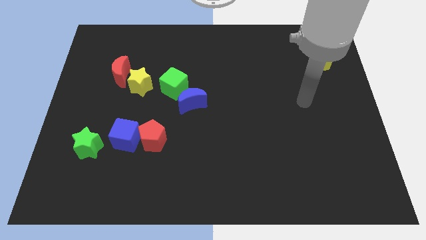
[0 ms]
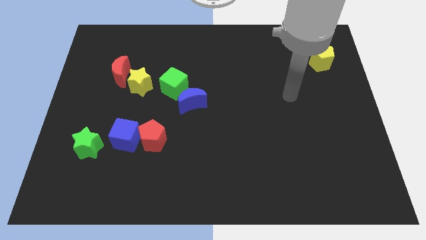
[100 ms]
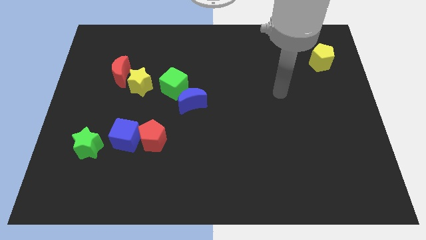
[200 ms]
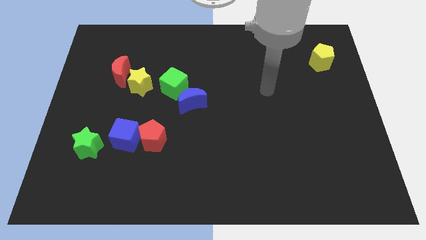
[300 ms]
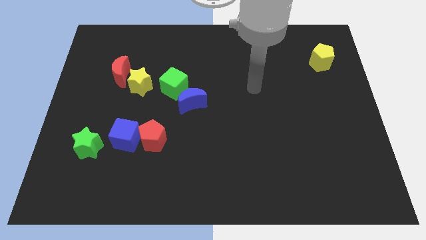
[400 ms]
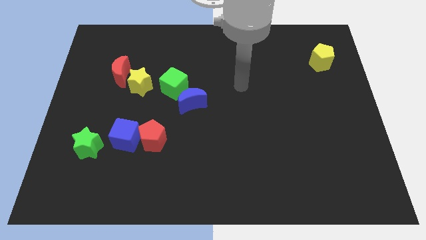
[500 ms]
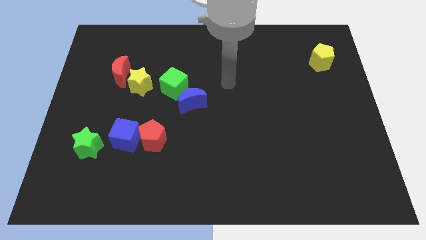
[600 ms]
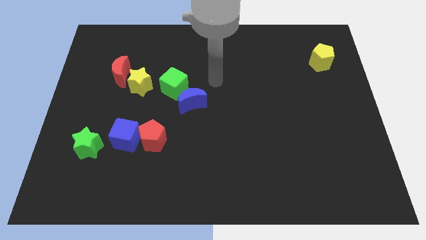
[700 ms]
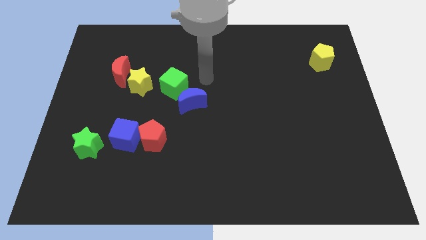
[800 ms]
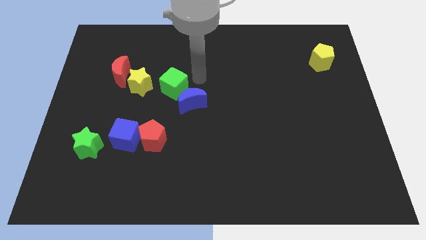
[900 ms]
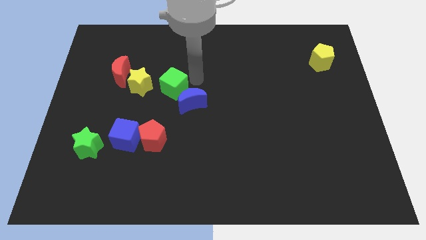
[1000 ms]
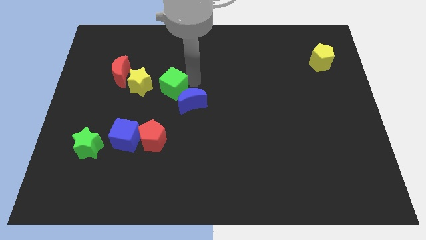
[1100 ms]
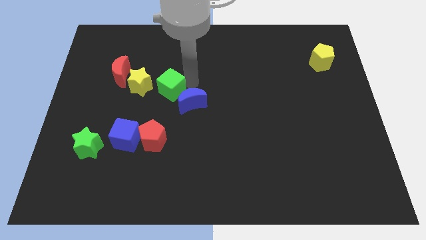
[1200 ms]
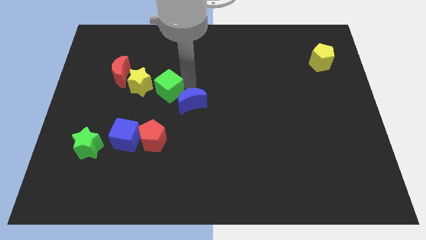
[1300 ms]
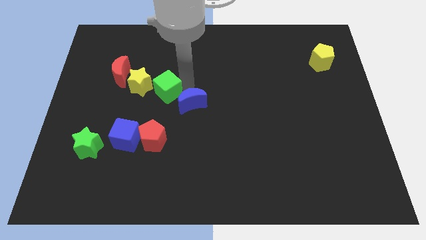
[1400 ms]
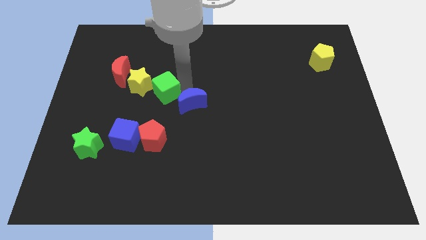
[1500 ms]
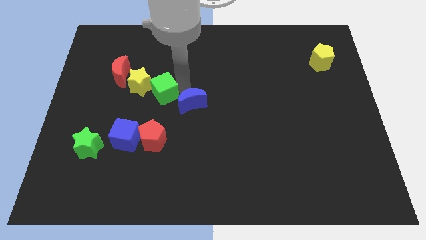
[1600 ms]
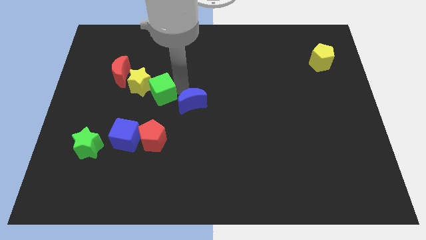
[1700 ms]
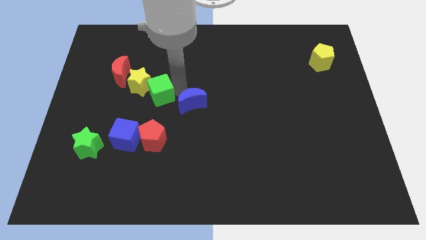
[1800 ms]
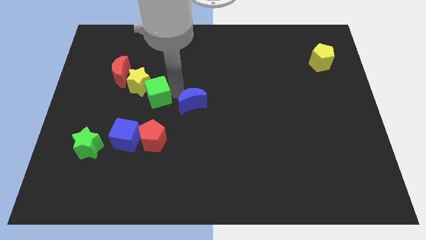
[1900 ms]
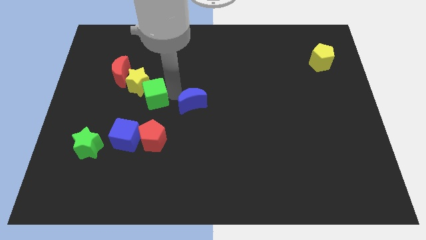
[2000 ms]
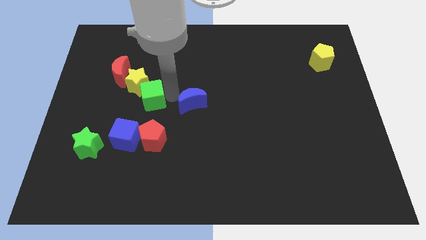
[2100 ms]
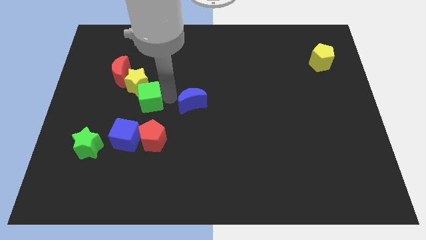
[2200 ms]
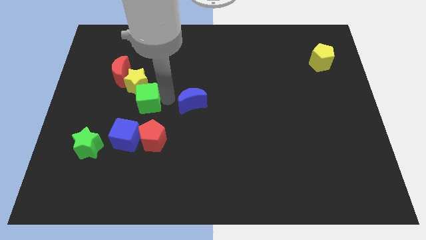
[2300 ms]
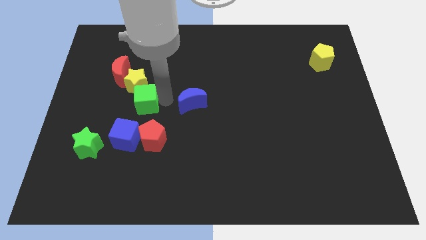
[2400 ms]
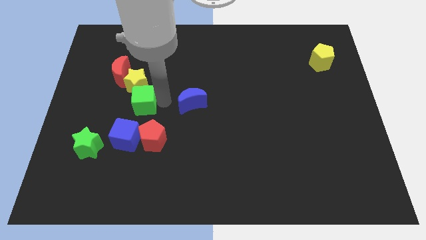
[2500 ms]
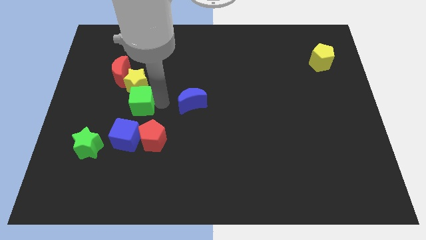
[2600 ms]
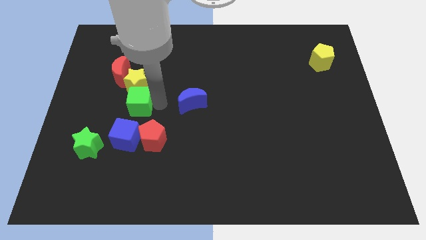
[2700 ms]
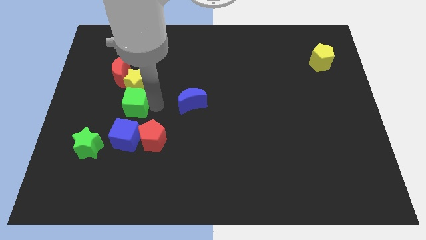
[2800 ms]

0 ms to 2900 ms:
slightly move the green cube to the left

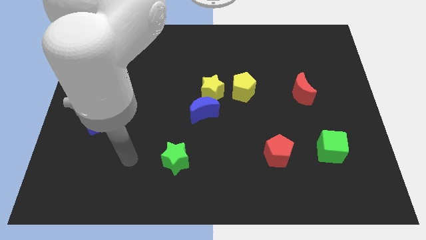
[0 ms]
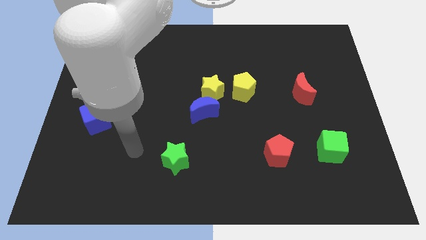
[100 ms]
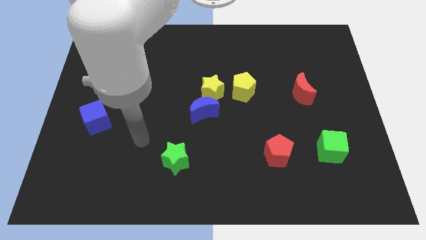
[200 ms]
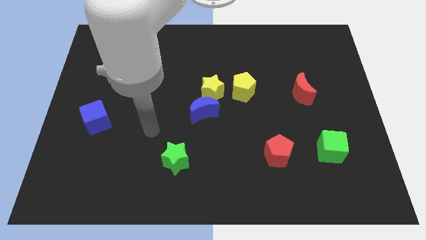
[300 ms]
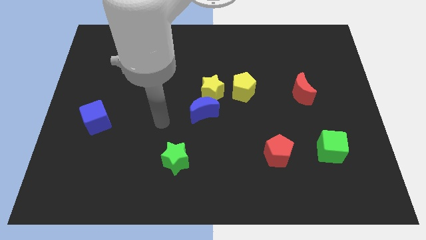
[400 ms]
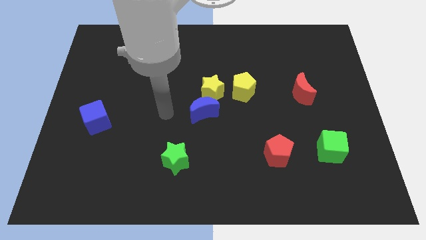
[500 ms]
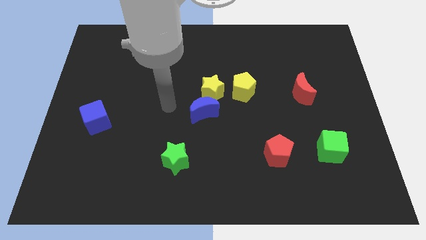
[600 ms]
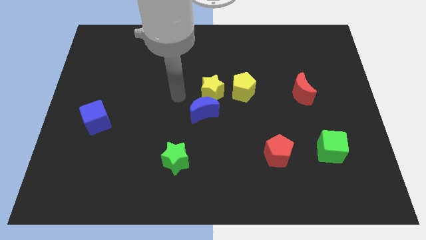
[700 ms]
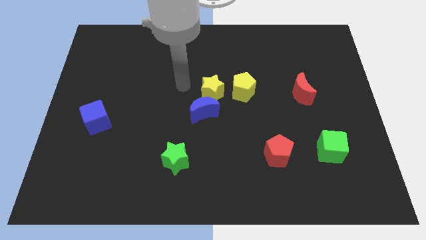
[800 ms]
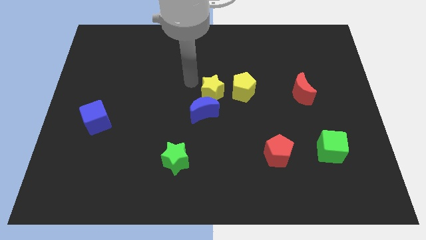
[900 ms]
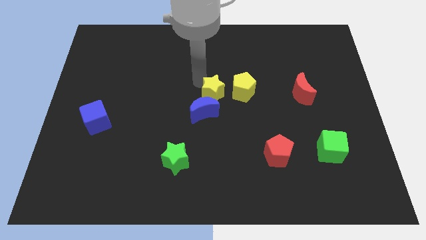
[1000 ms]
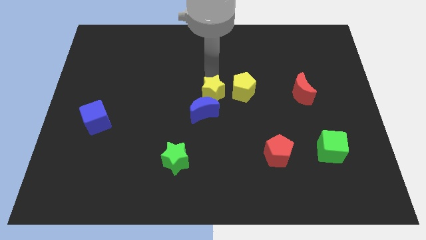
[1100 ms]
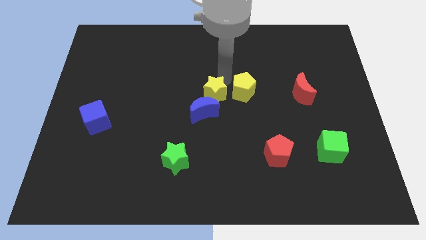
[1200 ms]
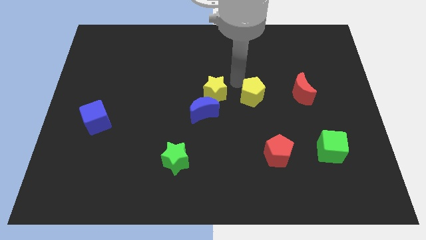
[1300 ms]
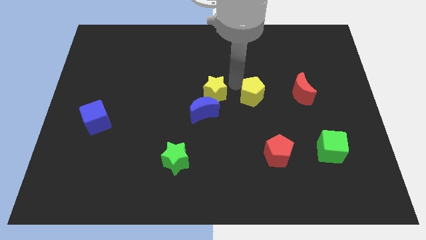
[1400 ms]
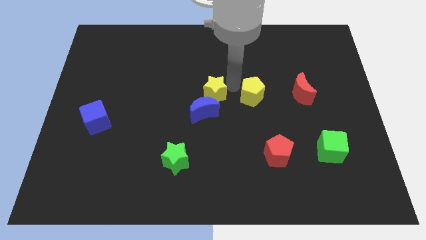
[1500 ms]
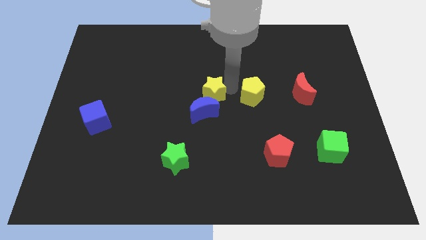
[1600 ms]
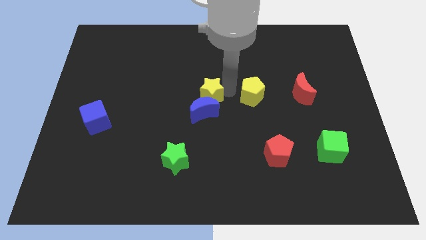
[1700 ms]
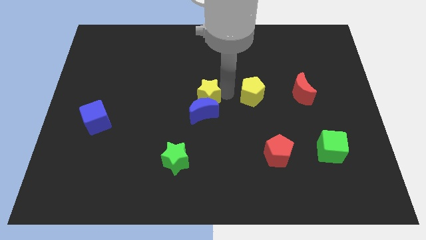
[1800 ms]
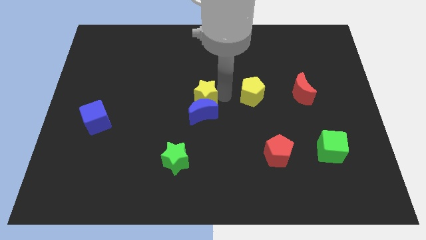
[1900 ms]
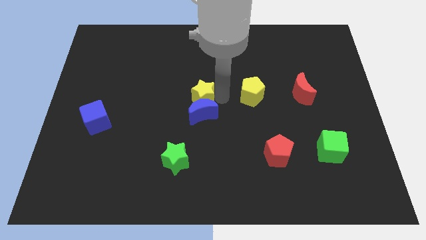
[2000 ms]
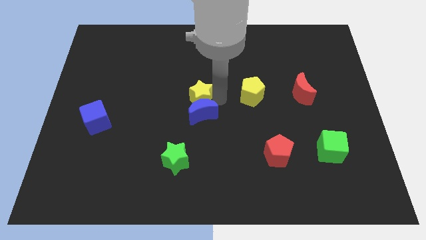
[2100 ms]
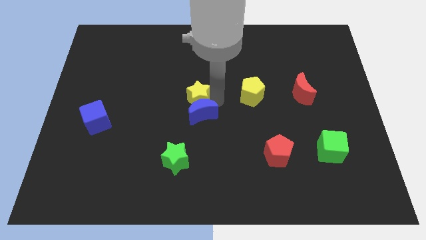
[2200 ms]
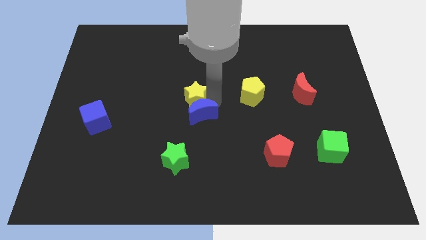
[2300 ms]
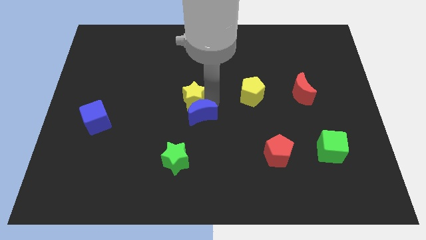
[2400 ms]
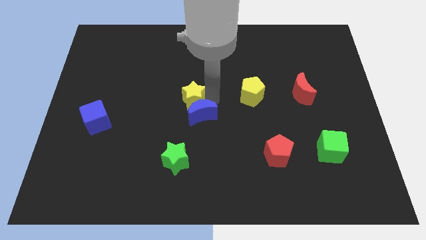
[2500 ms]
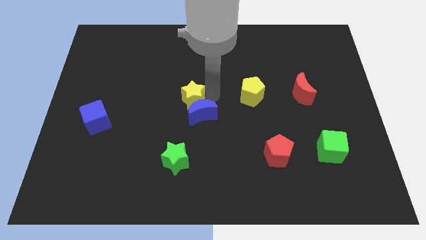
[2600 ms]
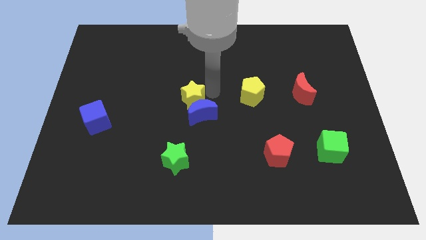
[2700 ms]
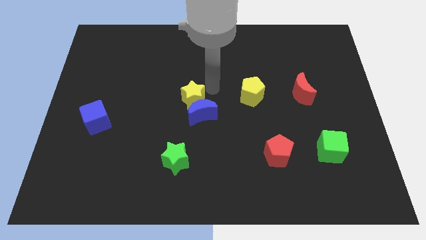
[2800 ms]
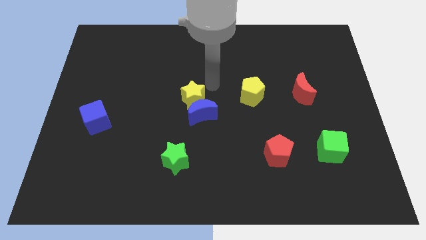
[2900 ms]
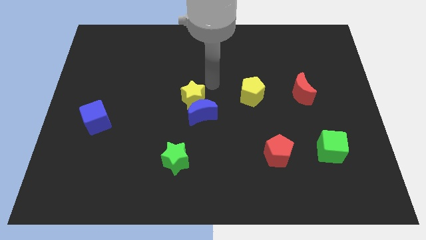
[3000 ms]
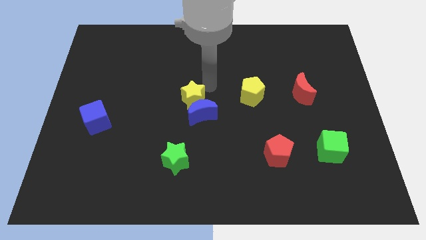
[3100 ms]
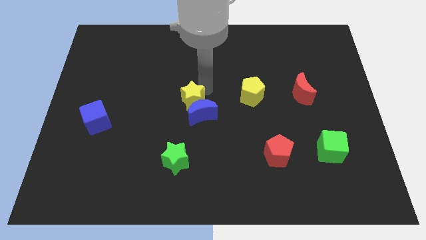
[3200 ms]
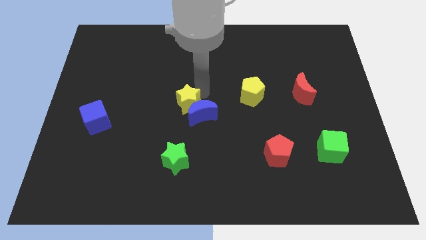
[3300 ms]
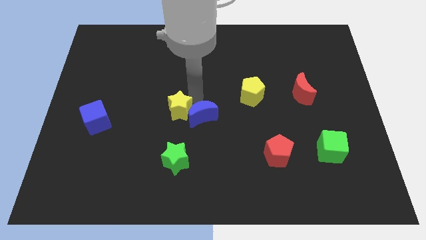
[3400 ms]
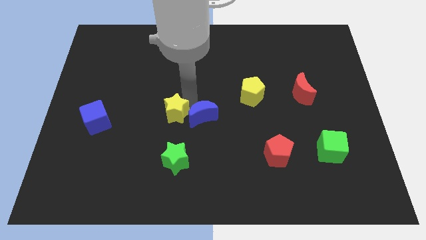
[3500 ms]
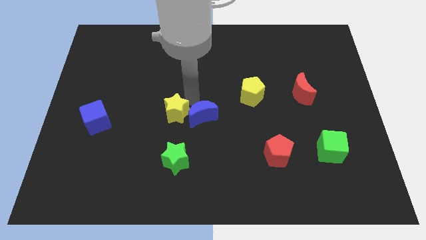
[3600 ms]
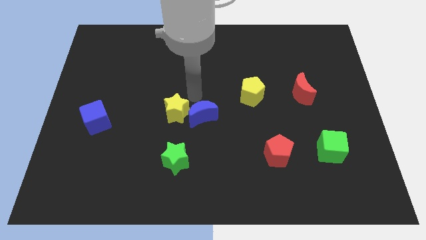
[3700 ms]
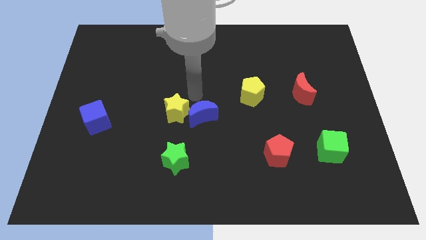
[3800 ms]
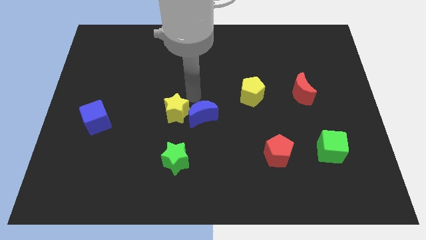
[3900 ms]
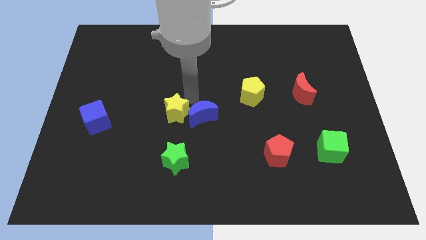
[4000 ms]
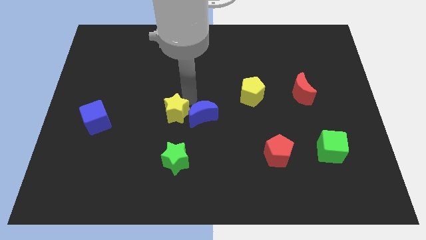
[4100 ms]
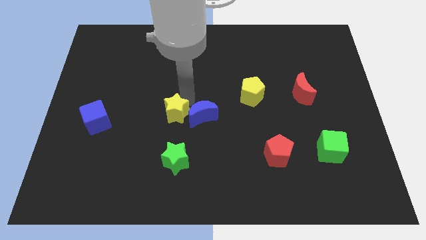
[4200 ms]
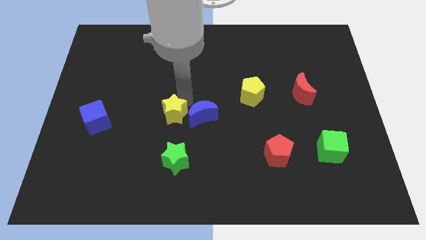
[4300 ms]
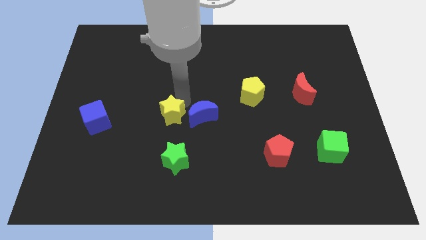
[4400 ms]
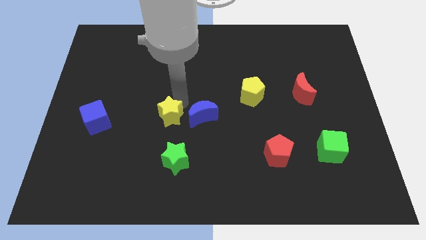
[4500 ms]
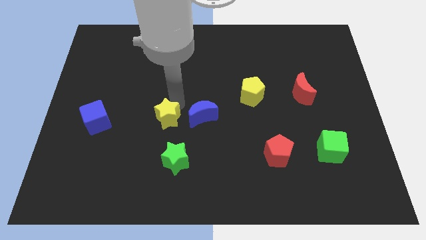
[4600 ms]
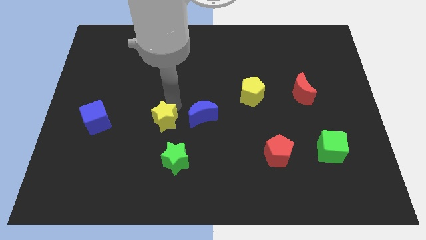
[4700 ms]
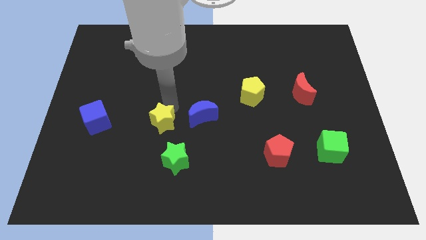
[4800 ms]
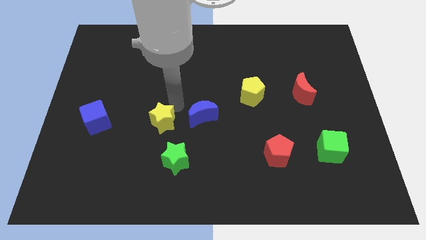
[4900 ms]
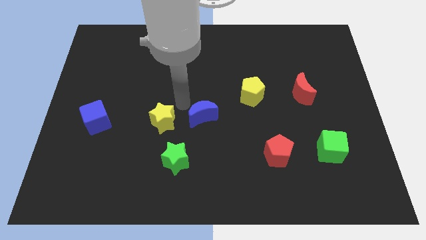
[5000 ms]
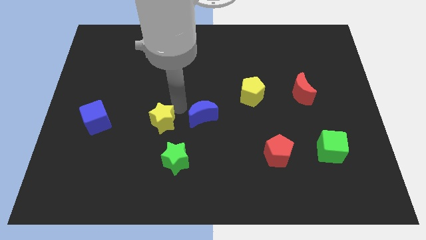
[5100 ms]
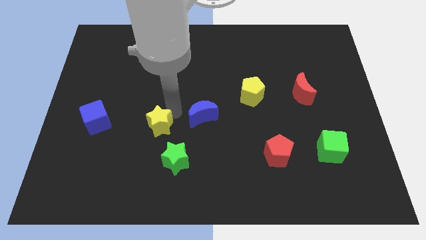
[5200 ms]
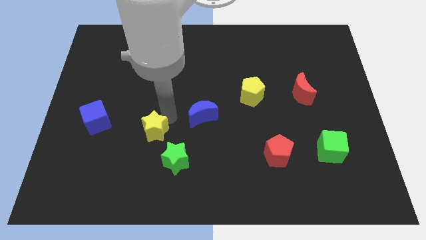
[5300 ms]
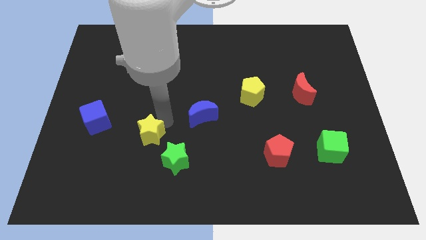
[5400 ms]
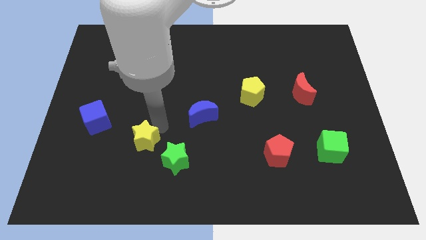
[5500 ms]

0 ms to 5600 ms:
move the yellow star downwards and to the left diagonally
